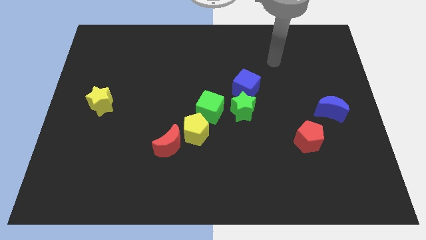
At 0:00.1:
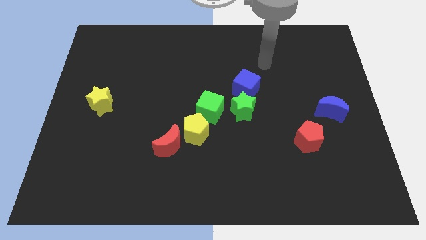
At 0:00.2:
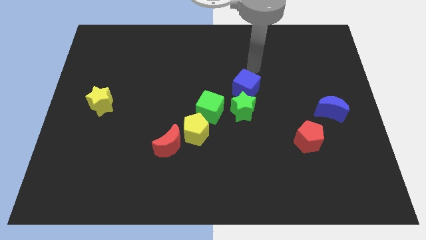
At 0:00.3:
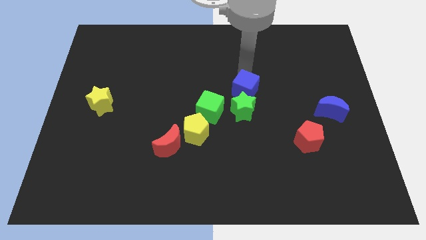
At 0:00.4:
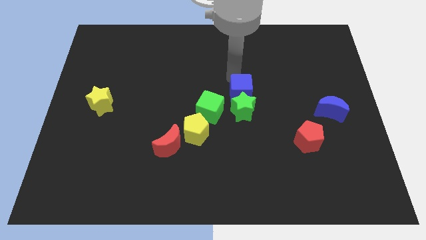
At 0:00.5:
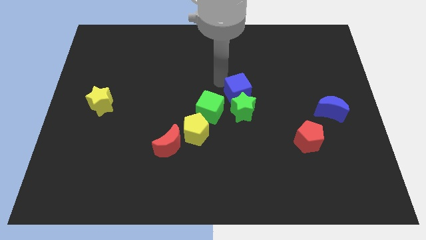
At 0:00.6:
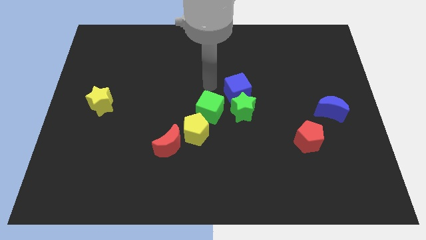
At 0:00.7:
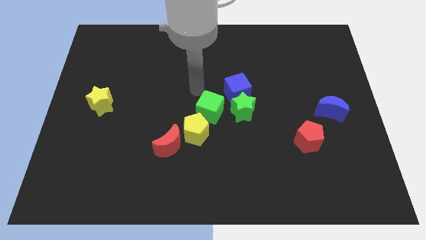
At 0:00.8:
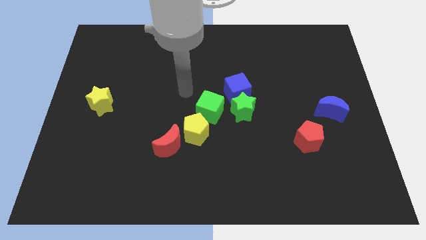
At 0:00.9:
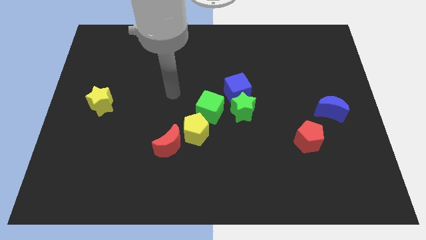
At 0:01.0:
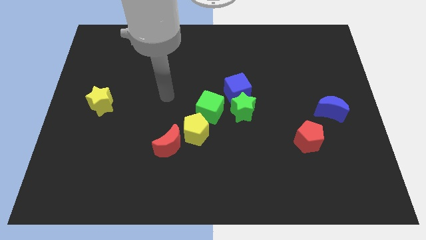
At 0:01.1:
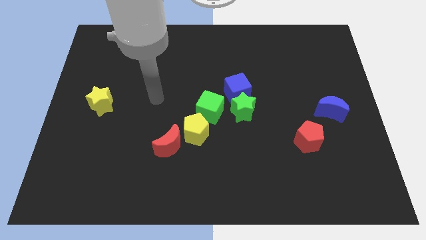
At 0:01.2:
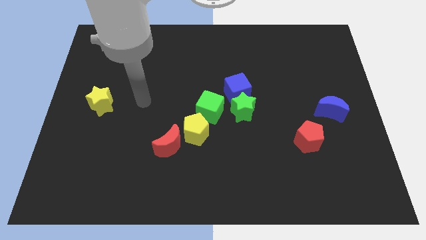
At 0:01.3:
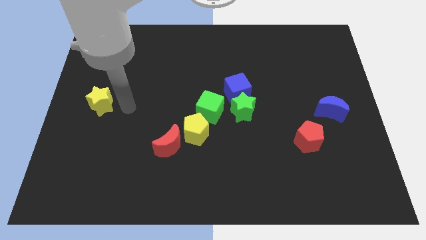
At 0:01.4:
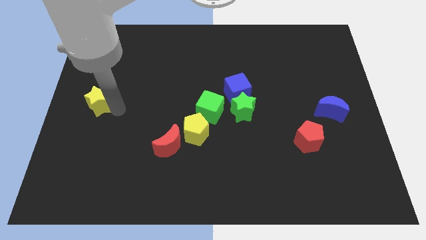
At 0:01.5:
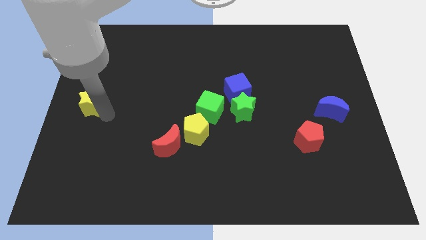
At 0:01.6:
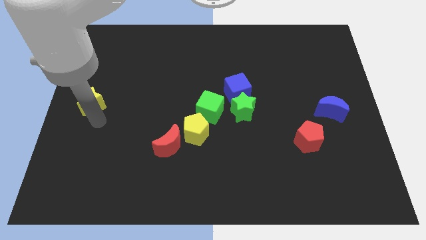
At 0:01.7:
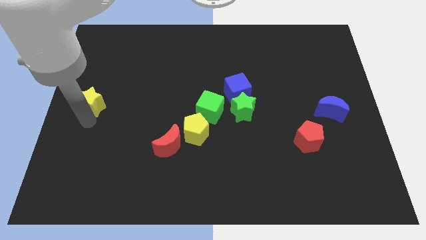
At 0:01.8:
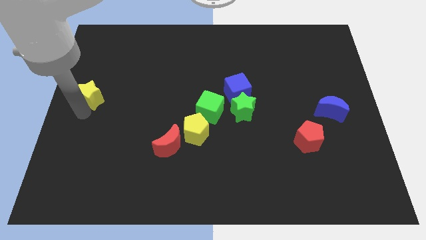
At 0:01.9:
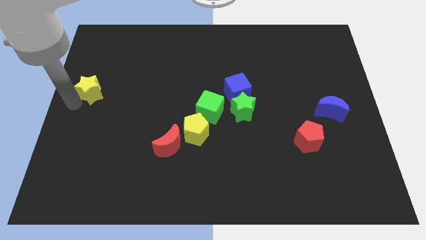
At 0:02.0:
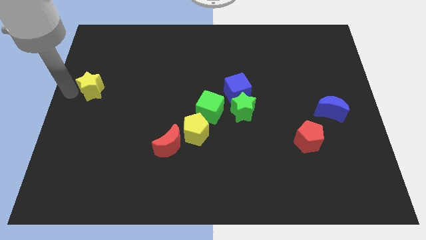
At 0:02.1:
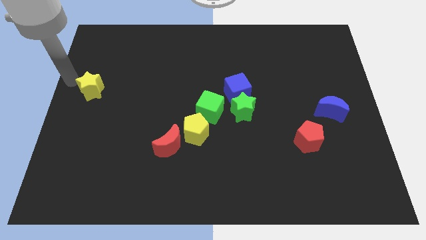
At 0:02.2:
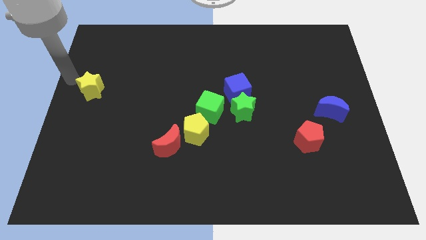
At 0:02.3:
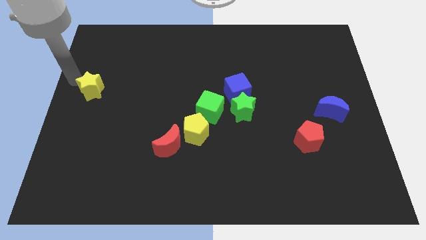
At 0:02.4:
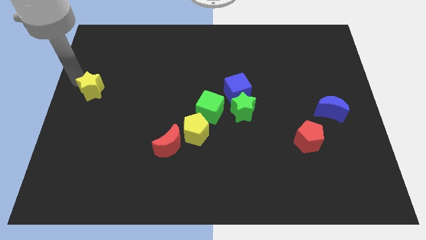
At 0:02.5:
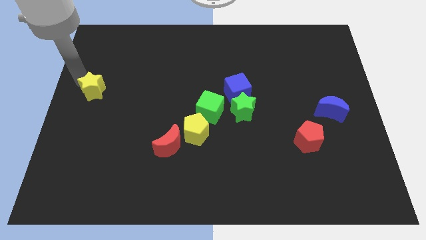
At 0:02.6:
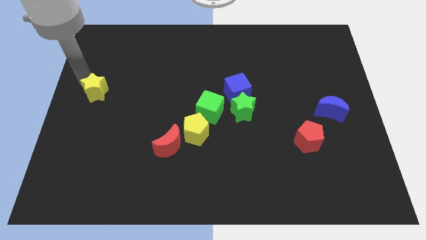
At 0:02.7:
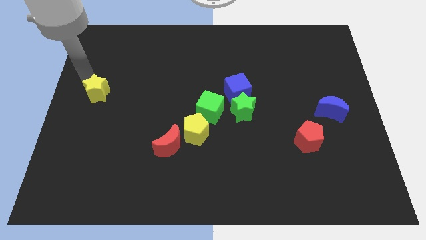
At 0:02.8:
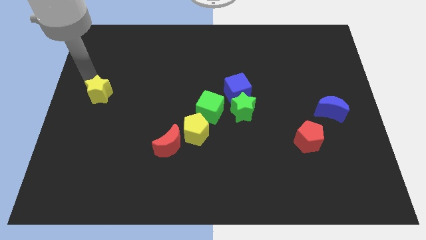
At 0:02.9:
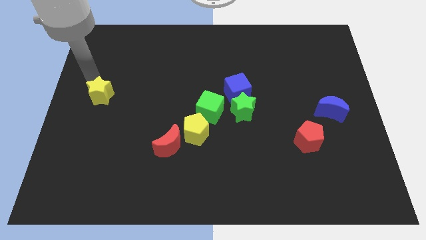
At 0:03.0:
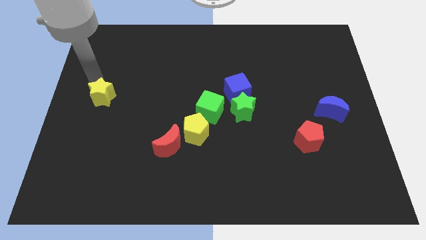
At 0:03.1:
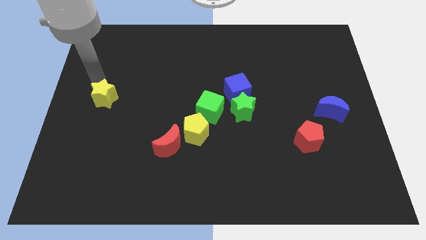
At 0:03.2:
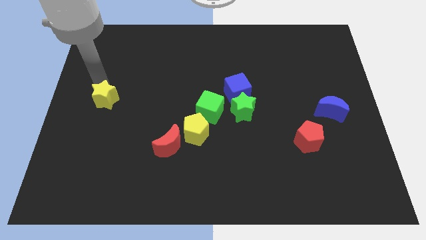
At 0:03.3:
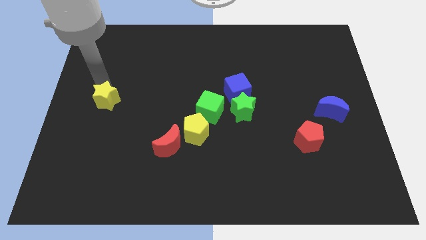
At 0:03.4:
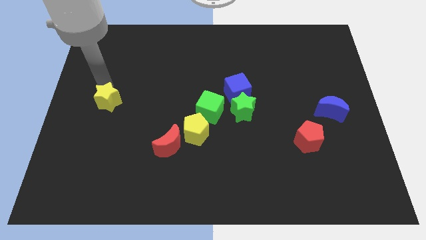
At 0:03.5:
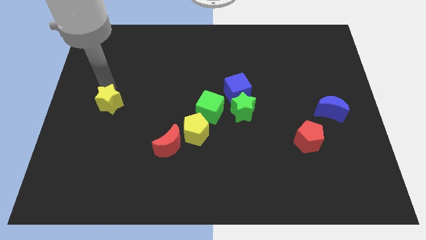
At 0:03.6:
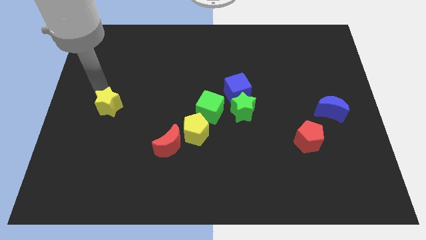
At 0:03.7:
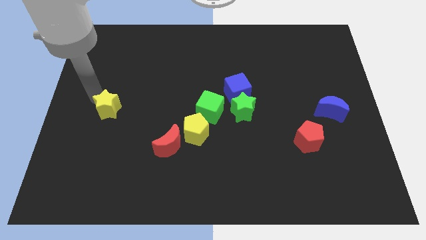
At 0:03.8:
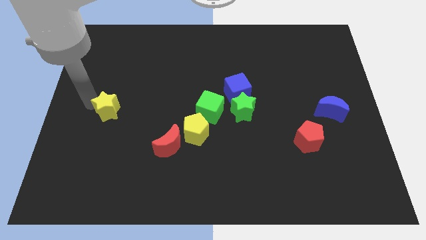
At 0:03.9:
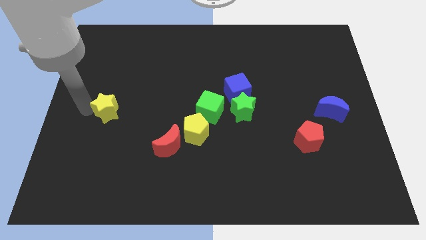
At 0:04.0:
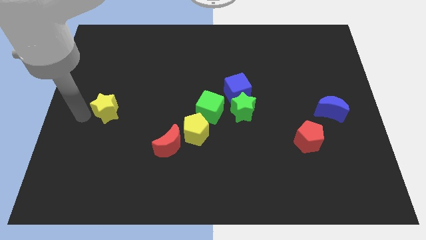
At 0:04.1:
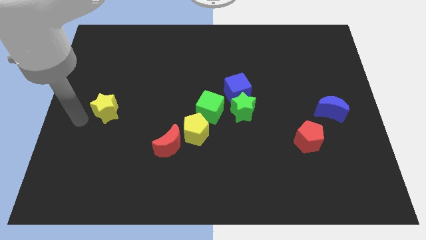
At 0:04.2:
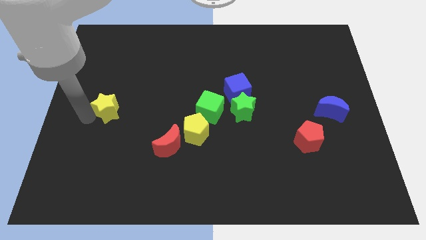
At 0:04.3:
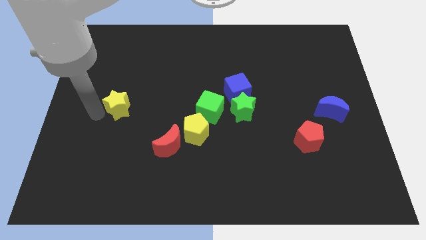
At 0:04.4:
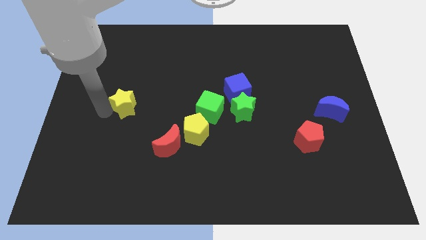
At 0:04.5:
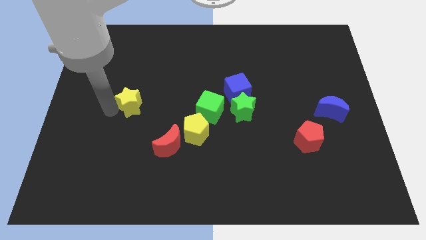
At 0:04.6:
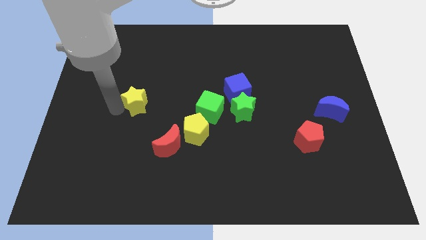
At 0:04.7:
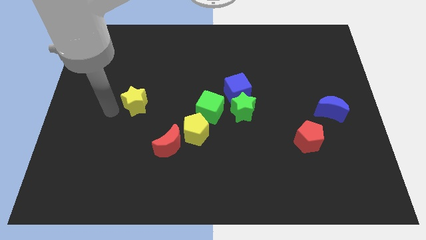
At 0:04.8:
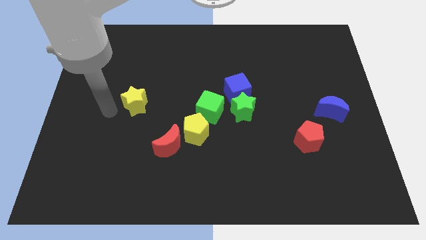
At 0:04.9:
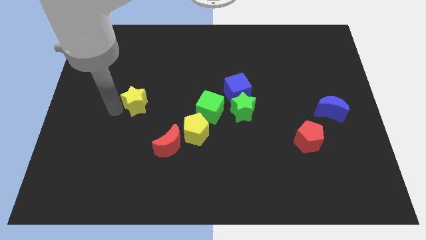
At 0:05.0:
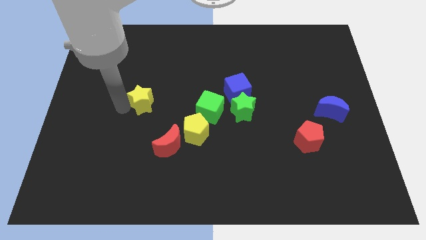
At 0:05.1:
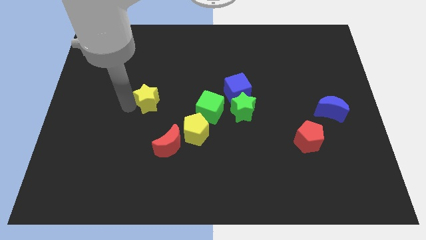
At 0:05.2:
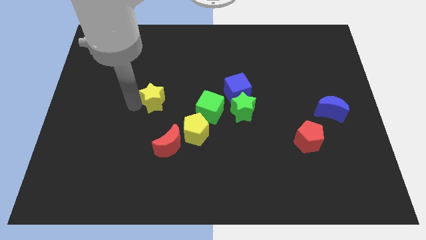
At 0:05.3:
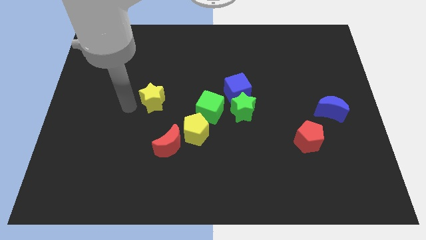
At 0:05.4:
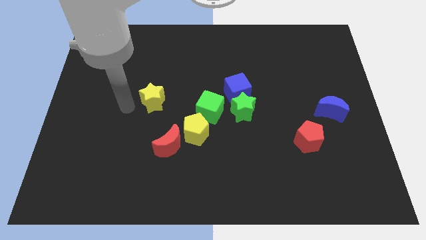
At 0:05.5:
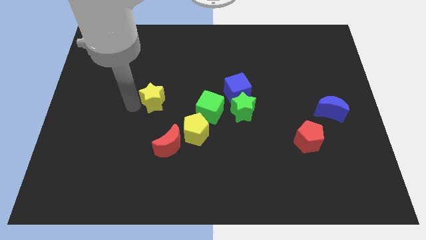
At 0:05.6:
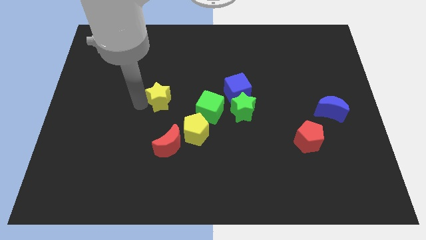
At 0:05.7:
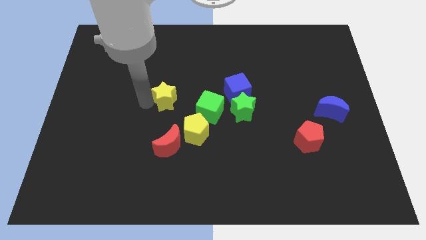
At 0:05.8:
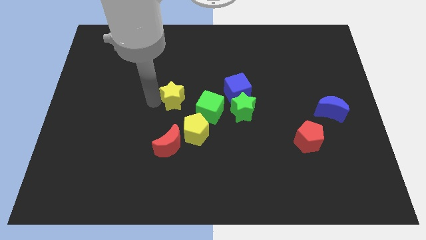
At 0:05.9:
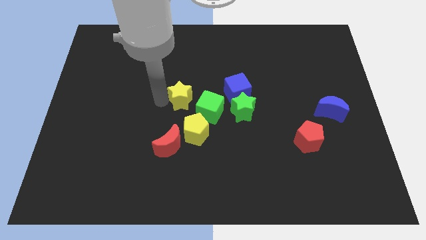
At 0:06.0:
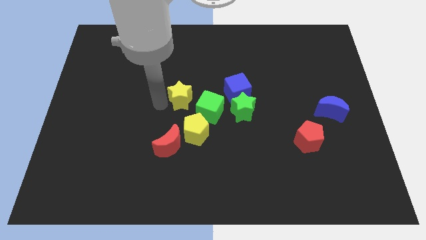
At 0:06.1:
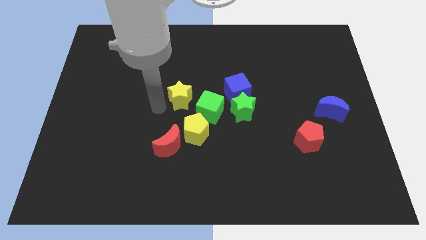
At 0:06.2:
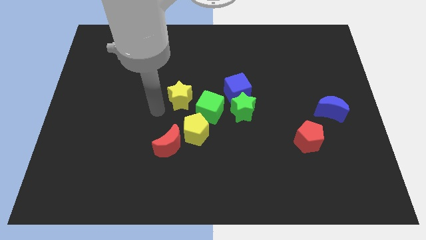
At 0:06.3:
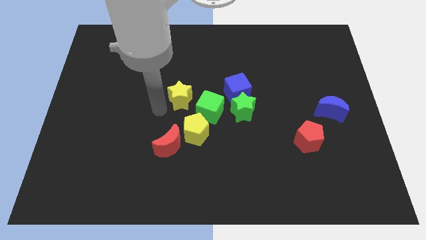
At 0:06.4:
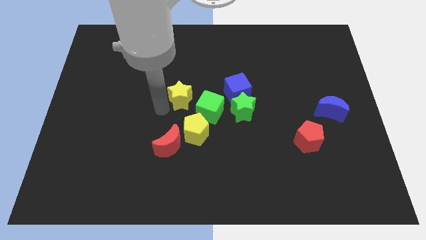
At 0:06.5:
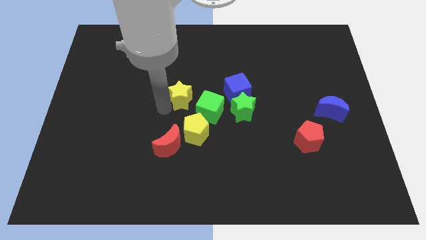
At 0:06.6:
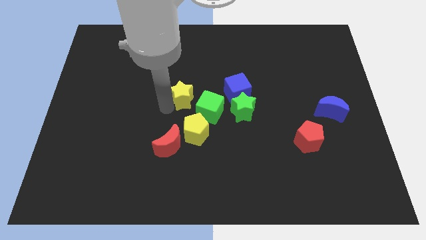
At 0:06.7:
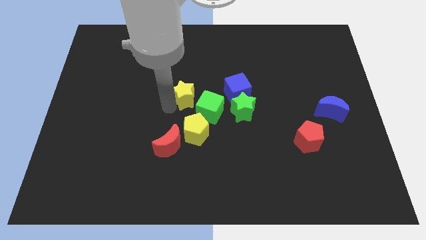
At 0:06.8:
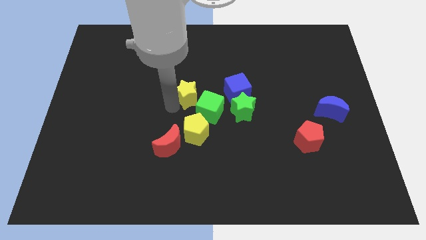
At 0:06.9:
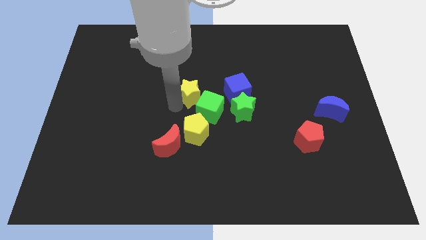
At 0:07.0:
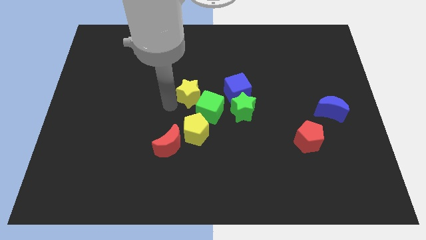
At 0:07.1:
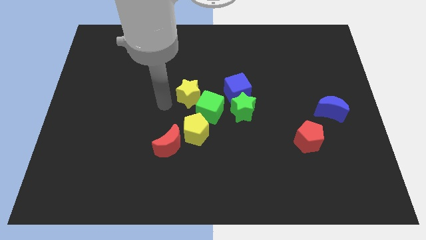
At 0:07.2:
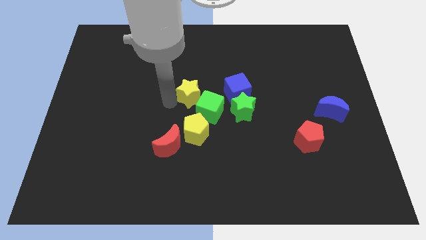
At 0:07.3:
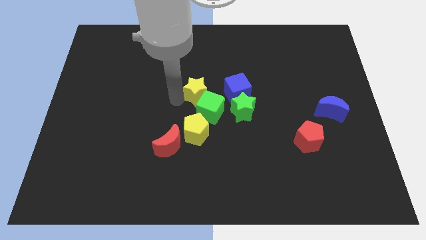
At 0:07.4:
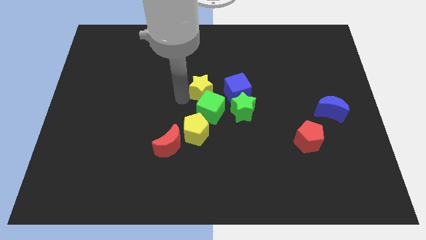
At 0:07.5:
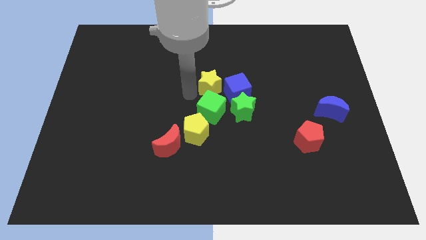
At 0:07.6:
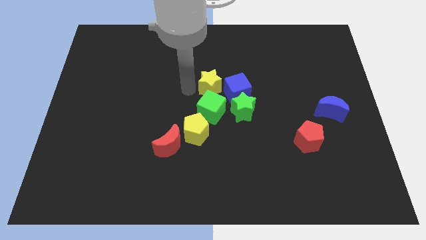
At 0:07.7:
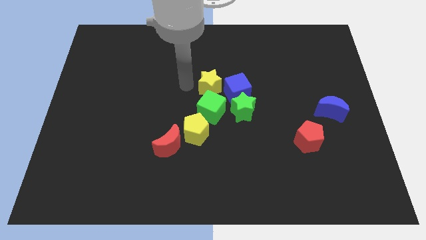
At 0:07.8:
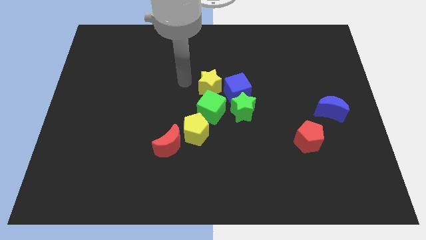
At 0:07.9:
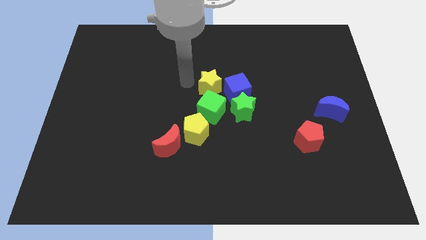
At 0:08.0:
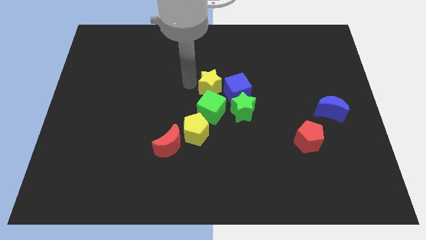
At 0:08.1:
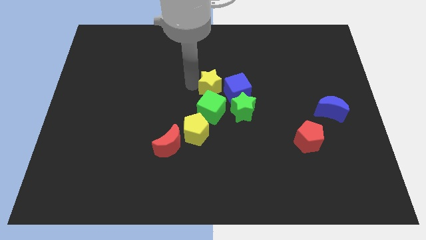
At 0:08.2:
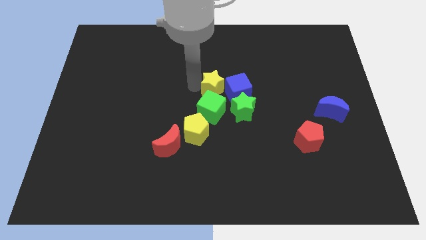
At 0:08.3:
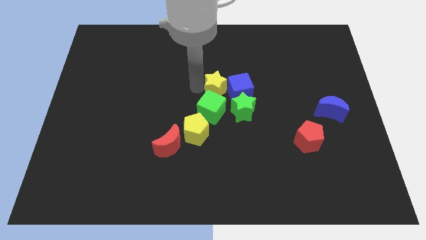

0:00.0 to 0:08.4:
push the yellow star next to the blue cube
